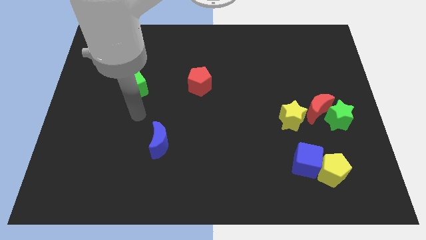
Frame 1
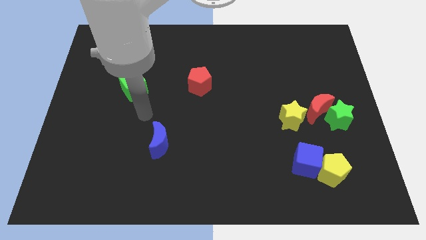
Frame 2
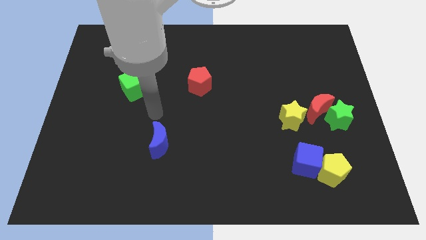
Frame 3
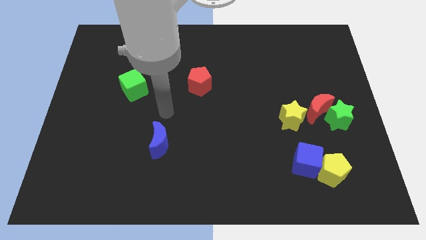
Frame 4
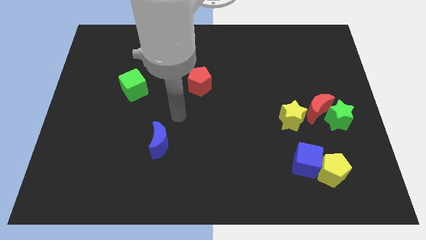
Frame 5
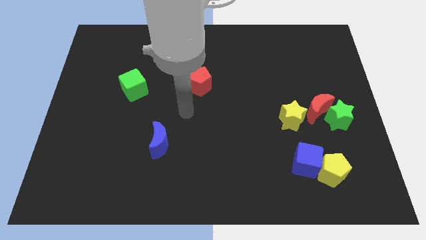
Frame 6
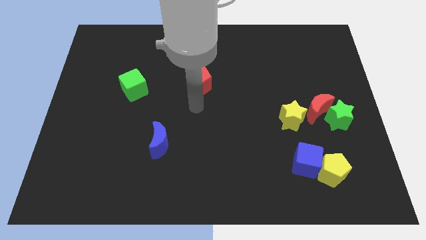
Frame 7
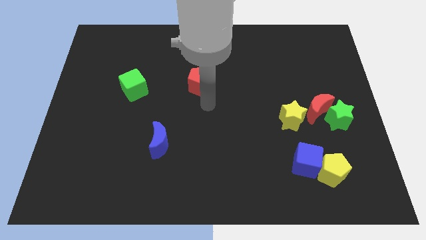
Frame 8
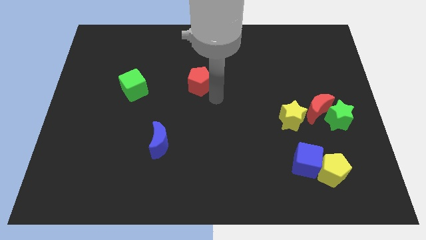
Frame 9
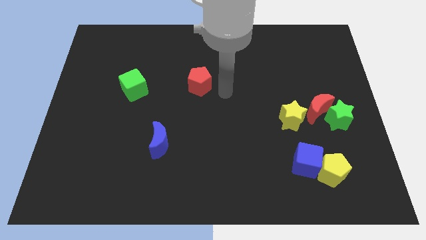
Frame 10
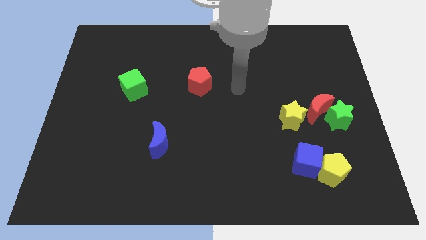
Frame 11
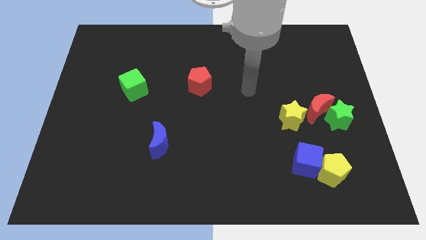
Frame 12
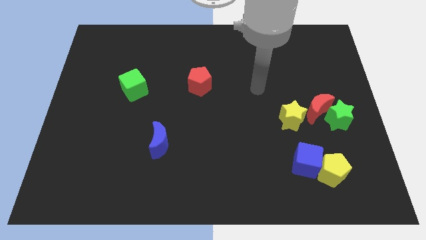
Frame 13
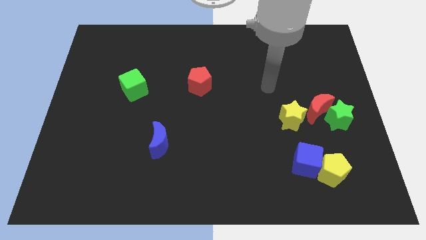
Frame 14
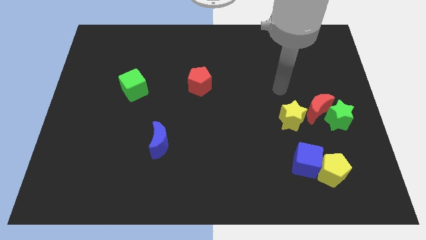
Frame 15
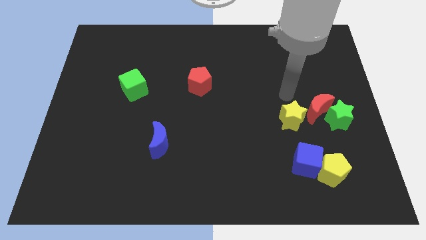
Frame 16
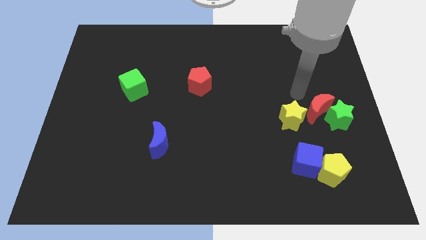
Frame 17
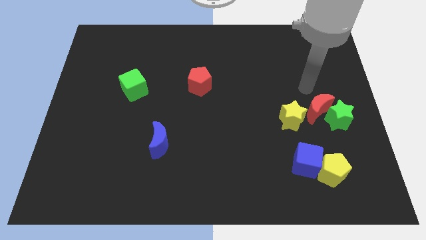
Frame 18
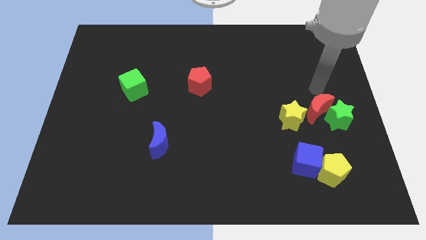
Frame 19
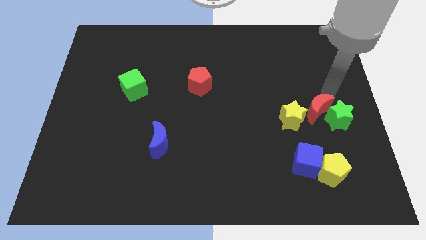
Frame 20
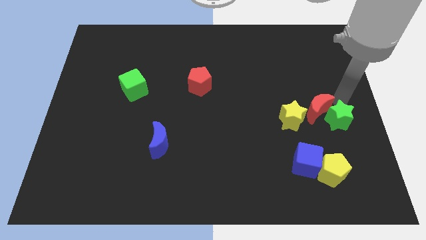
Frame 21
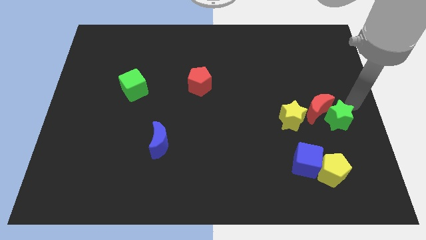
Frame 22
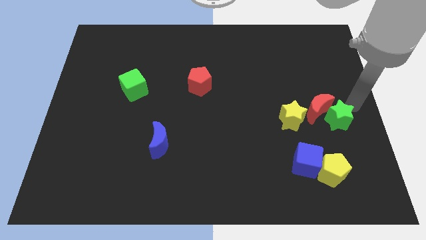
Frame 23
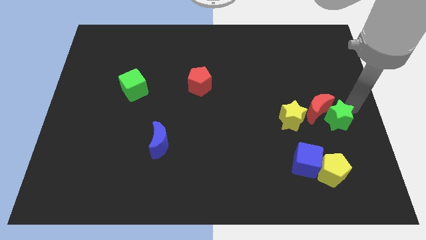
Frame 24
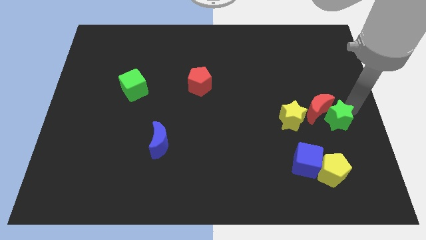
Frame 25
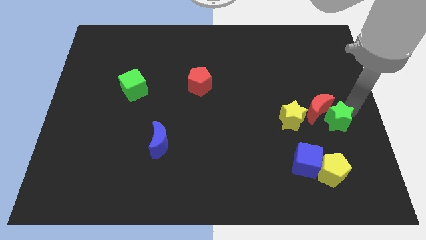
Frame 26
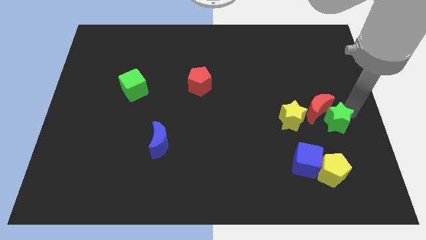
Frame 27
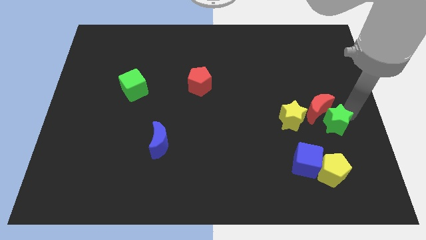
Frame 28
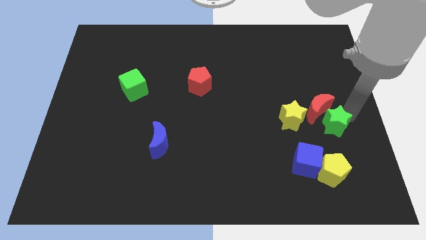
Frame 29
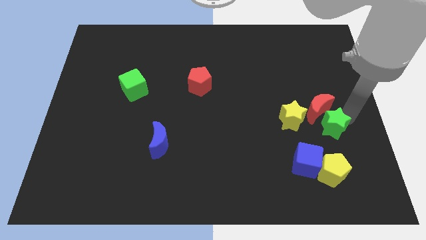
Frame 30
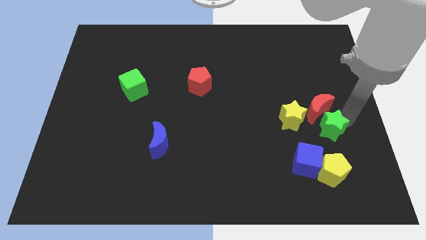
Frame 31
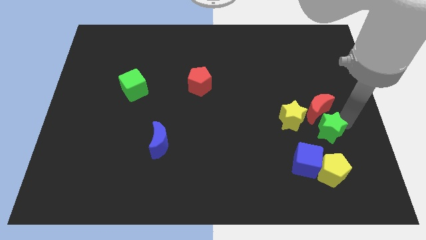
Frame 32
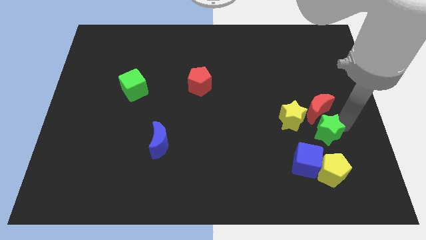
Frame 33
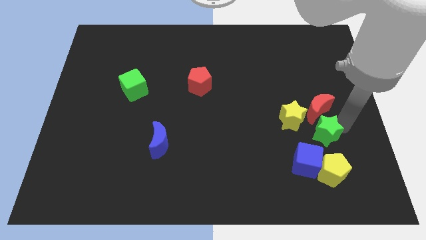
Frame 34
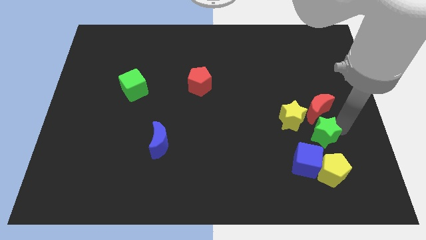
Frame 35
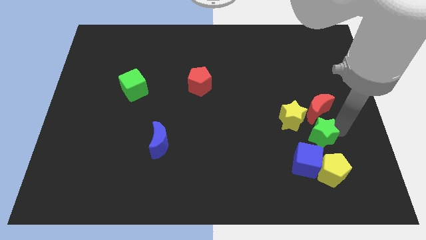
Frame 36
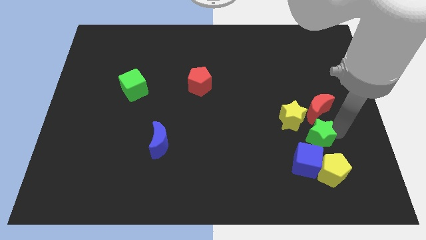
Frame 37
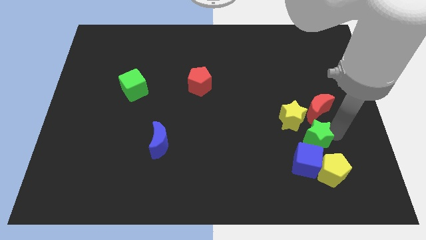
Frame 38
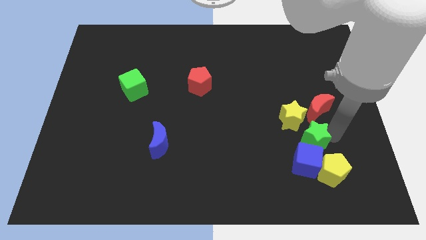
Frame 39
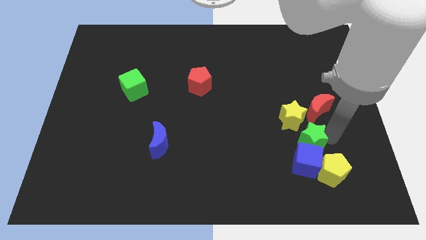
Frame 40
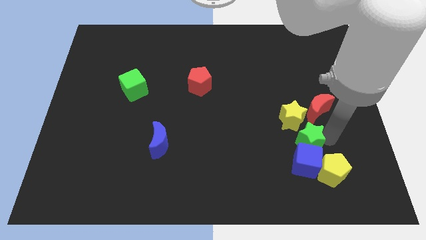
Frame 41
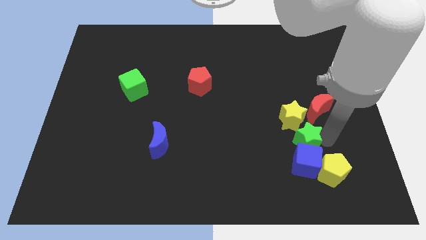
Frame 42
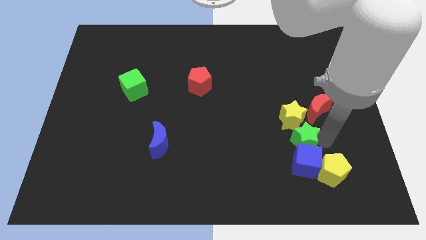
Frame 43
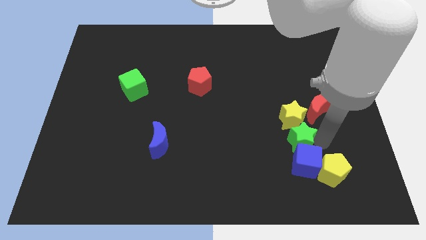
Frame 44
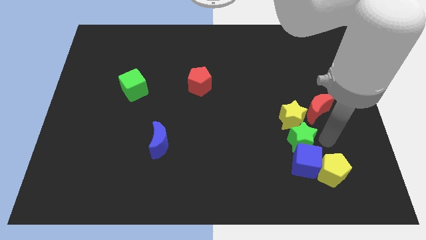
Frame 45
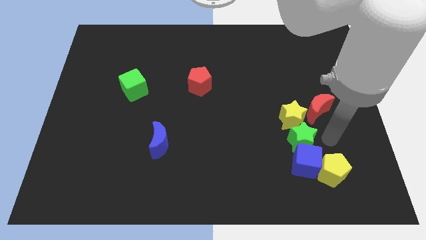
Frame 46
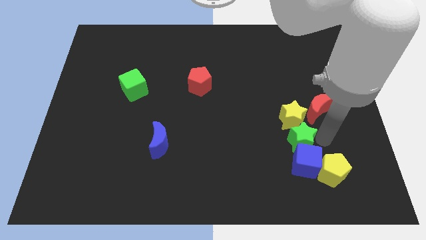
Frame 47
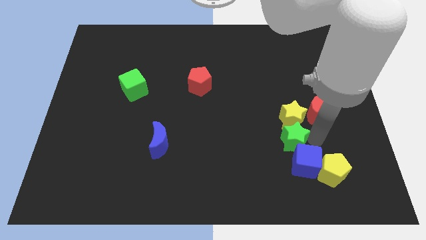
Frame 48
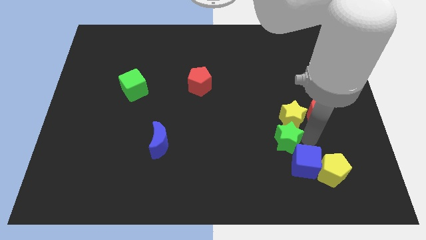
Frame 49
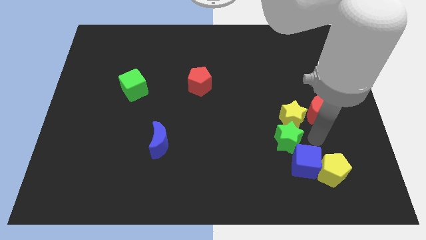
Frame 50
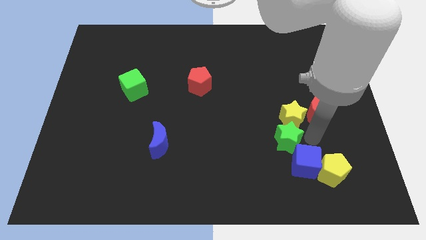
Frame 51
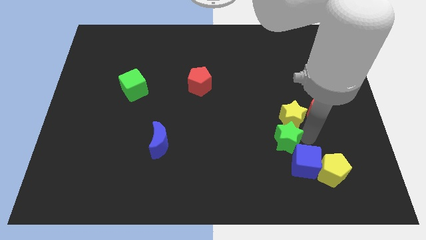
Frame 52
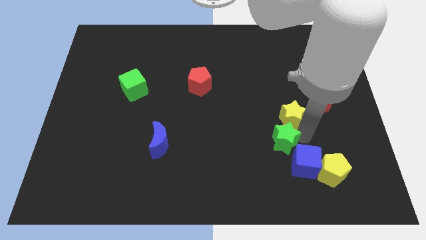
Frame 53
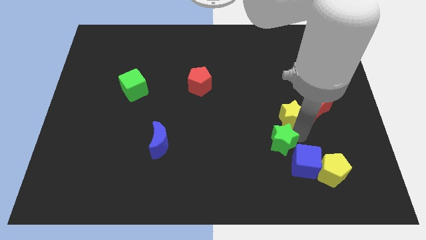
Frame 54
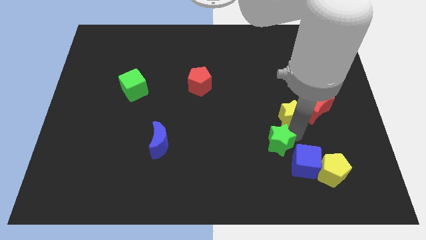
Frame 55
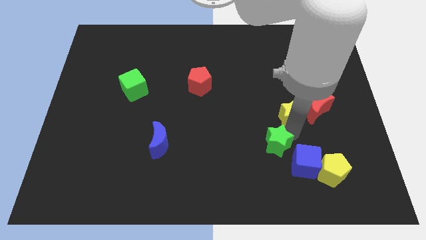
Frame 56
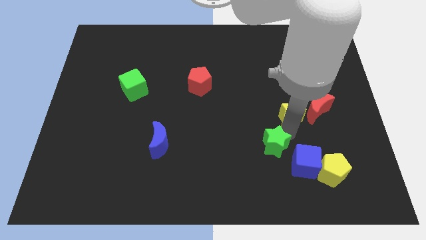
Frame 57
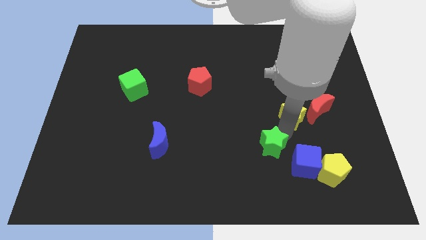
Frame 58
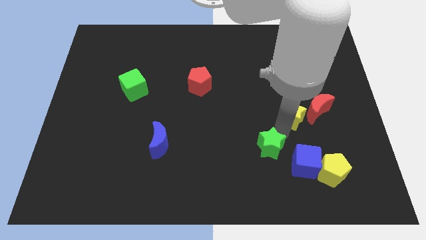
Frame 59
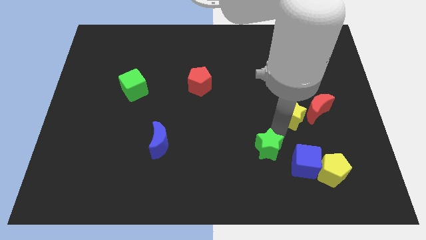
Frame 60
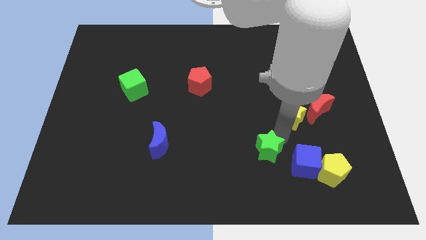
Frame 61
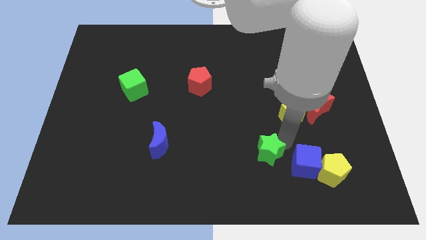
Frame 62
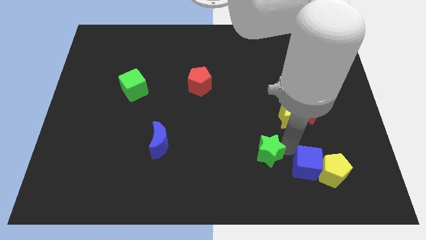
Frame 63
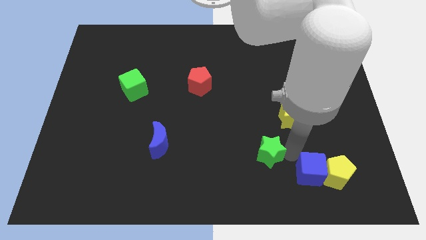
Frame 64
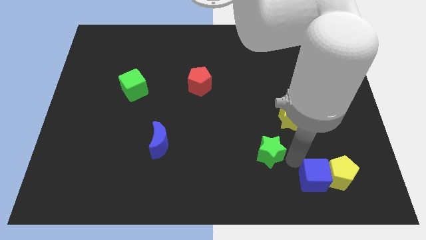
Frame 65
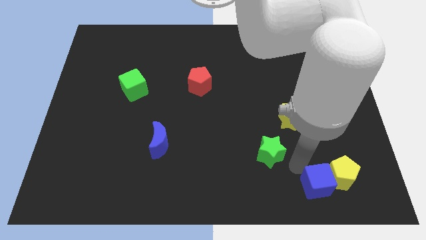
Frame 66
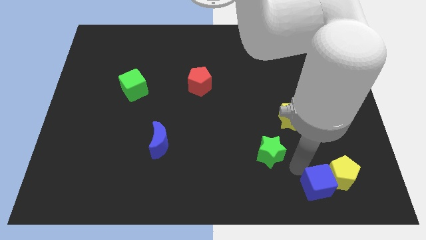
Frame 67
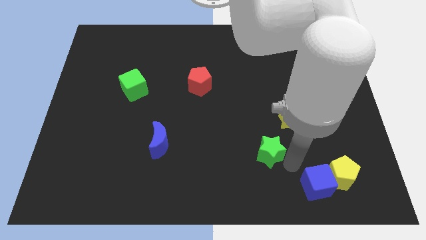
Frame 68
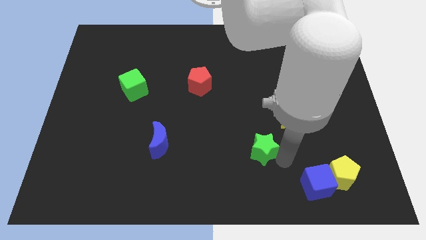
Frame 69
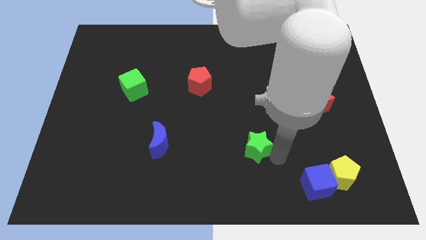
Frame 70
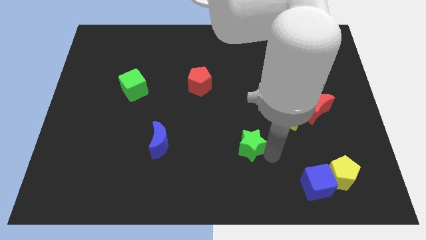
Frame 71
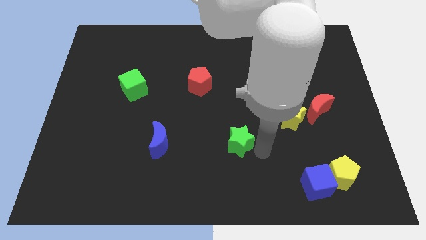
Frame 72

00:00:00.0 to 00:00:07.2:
slide the green star to the left

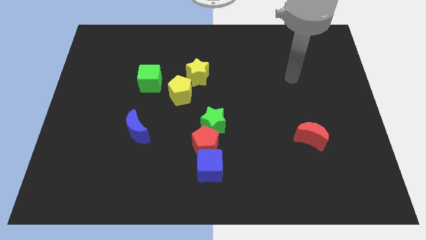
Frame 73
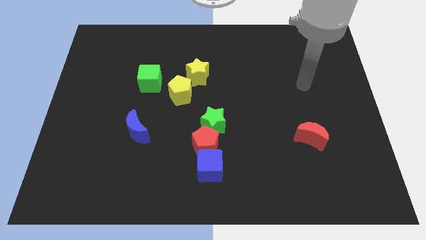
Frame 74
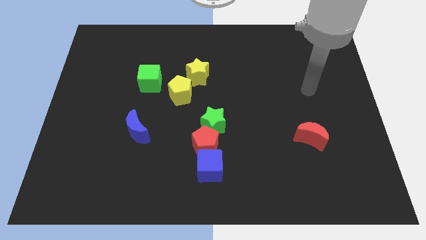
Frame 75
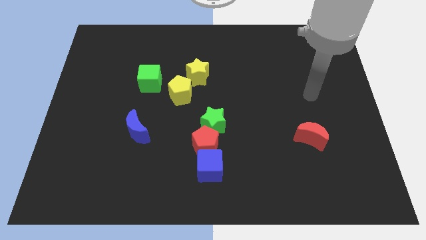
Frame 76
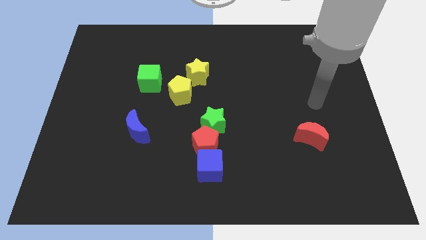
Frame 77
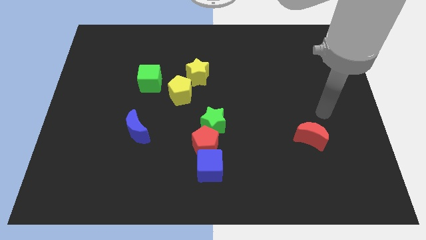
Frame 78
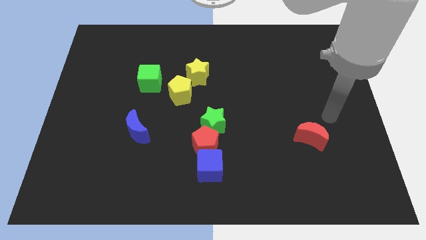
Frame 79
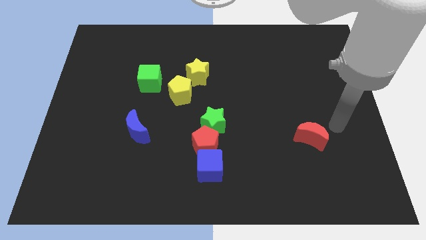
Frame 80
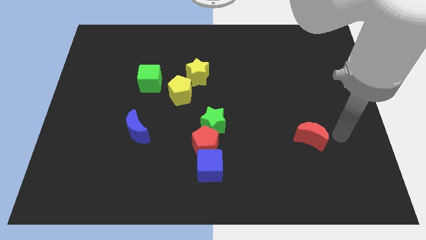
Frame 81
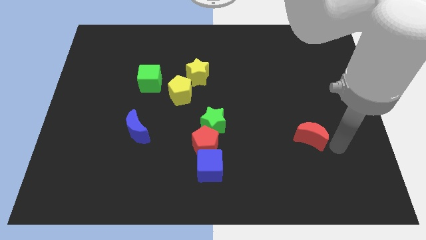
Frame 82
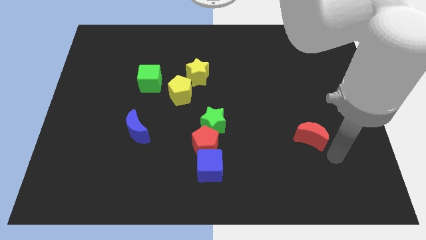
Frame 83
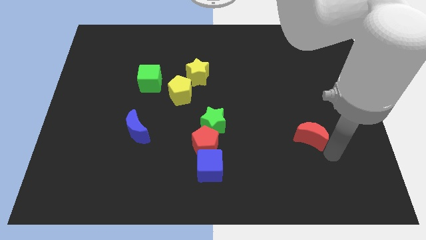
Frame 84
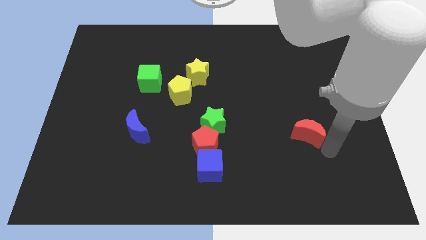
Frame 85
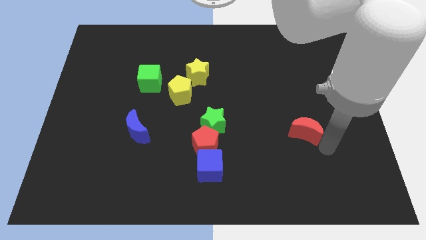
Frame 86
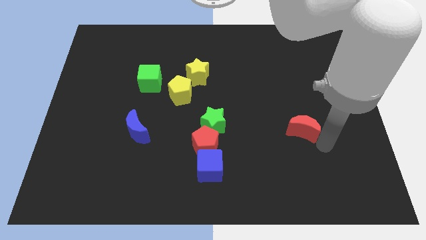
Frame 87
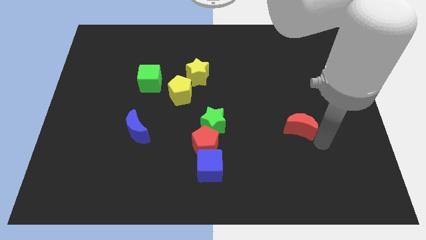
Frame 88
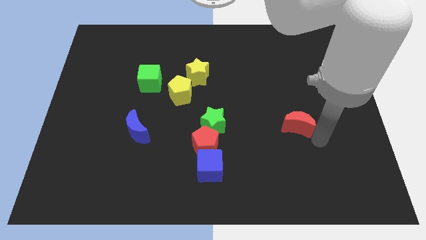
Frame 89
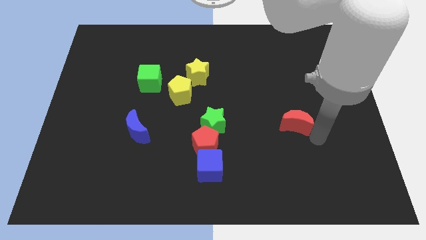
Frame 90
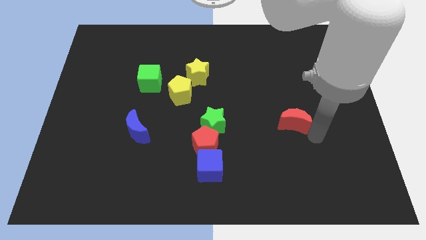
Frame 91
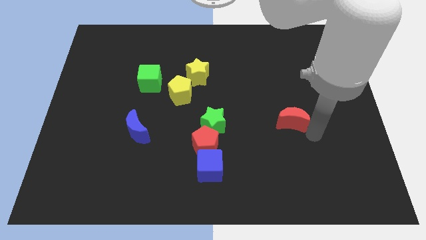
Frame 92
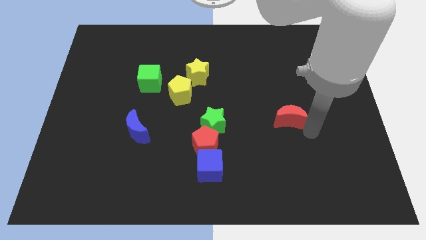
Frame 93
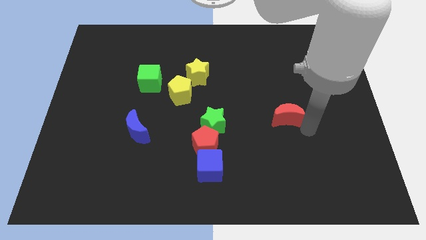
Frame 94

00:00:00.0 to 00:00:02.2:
push the red moon up and then left a little
